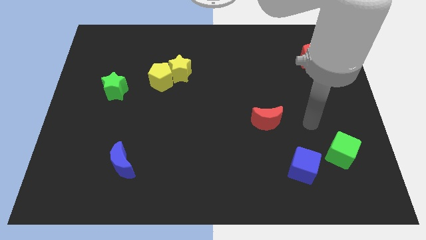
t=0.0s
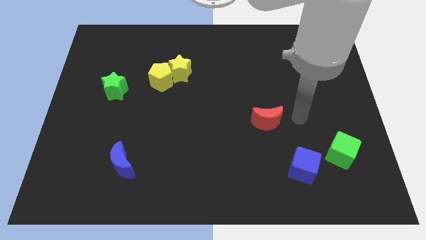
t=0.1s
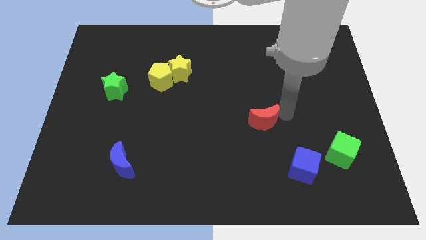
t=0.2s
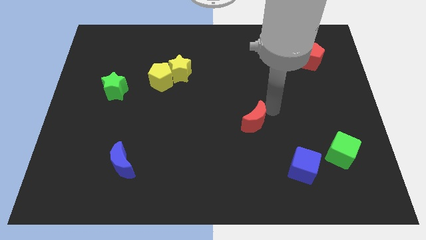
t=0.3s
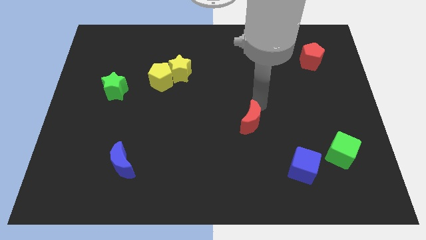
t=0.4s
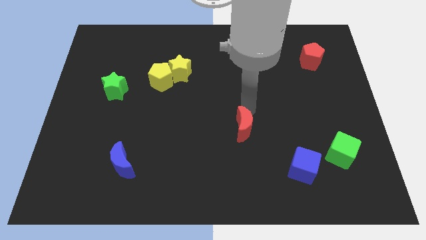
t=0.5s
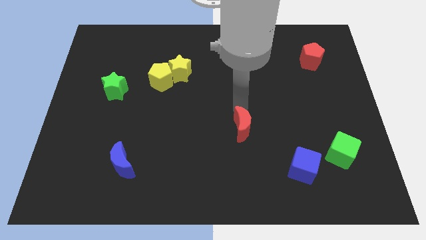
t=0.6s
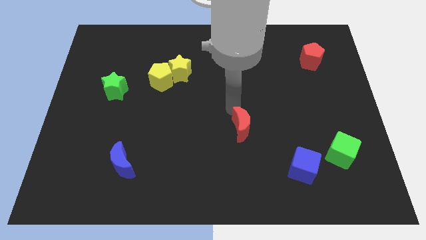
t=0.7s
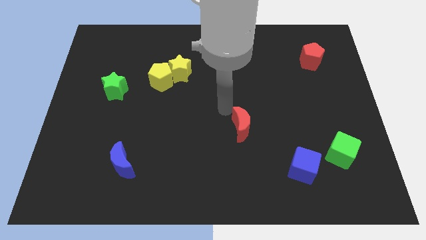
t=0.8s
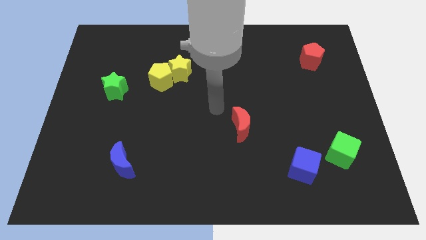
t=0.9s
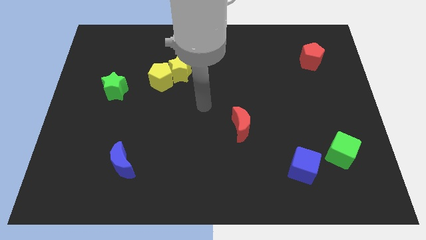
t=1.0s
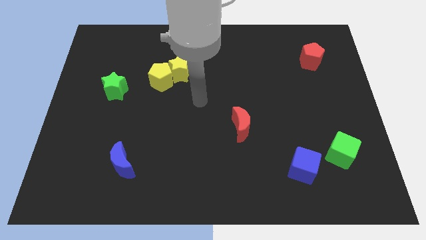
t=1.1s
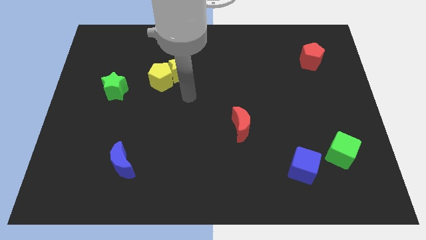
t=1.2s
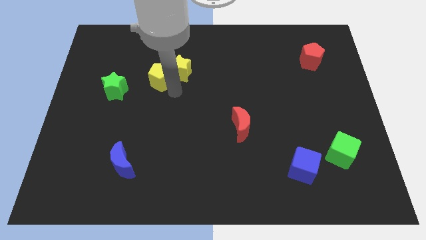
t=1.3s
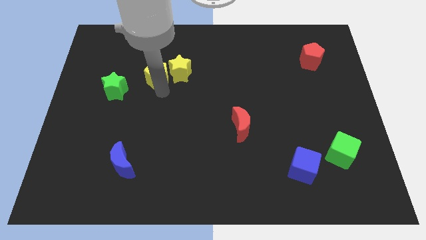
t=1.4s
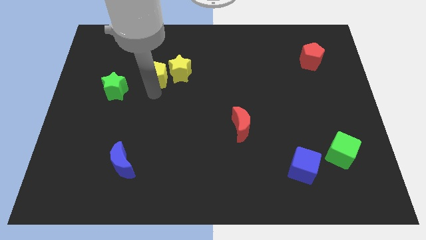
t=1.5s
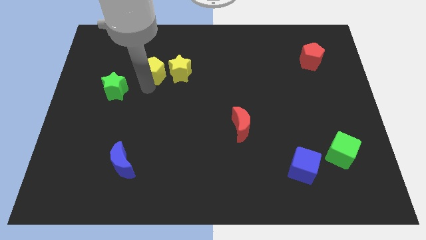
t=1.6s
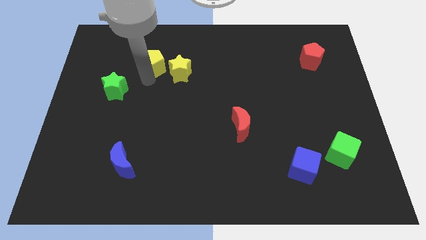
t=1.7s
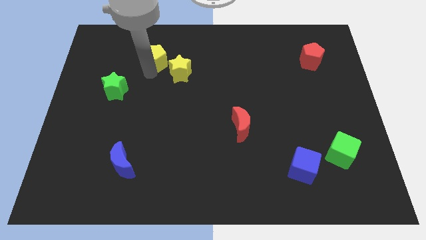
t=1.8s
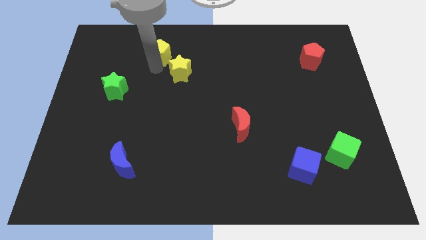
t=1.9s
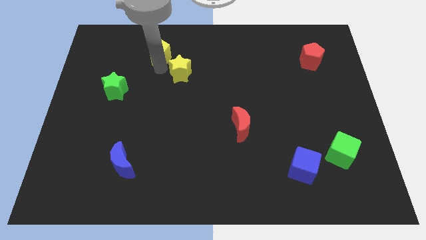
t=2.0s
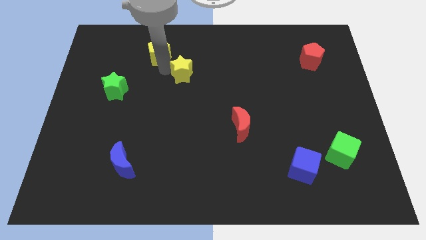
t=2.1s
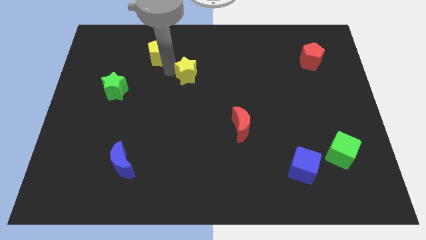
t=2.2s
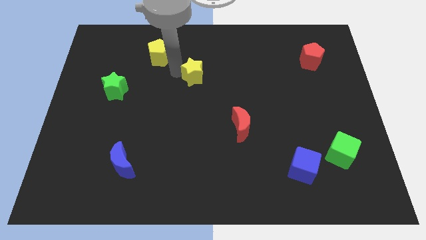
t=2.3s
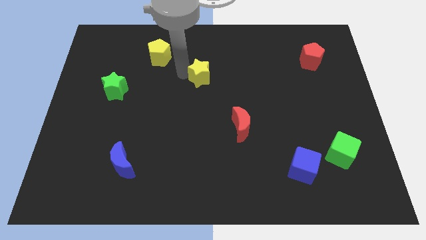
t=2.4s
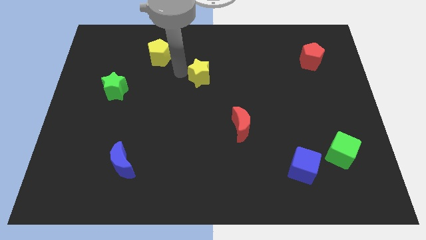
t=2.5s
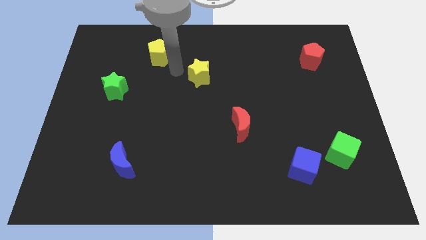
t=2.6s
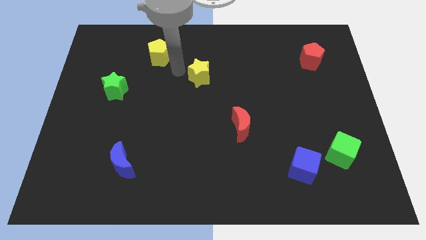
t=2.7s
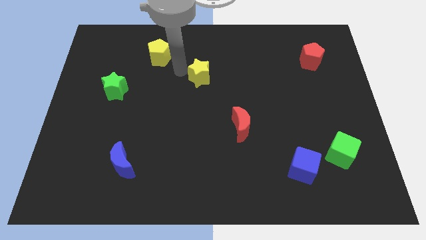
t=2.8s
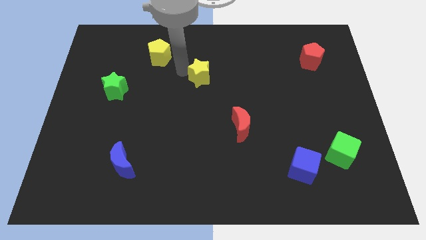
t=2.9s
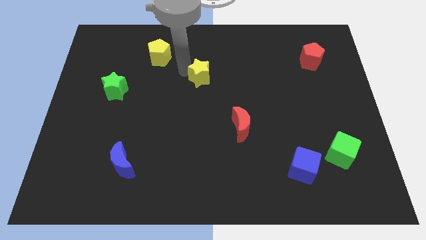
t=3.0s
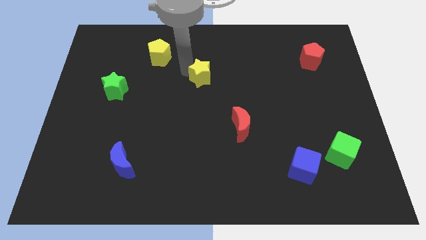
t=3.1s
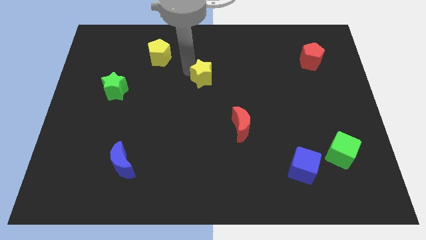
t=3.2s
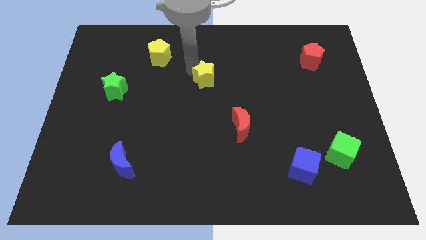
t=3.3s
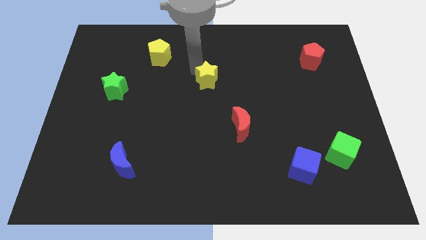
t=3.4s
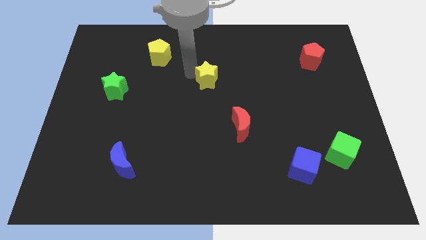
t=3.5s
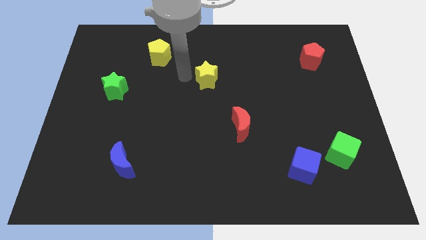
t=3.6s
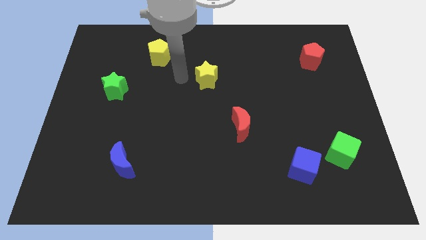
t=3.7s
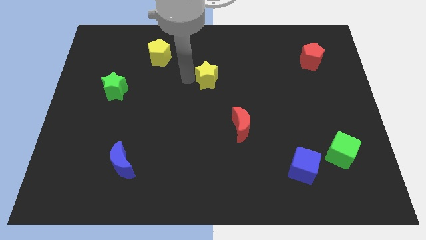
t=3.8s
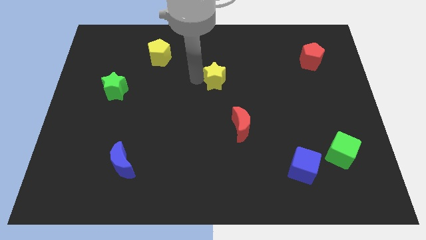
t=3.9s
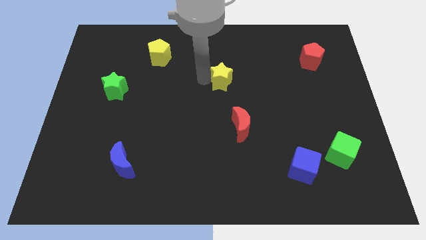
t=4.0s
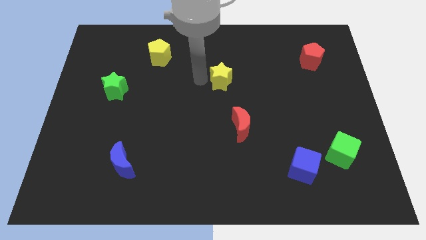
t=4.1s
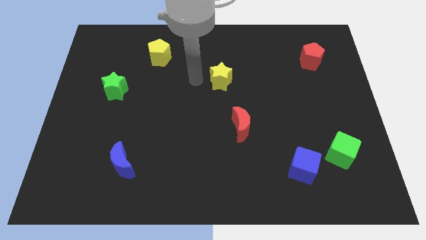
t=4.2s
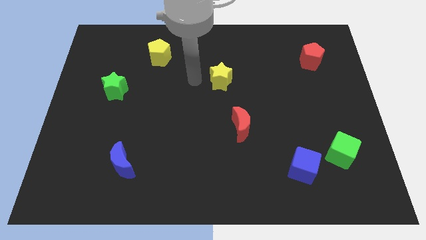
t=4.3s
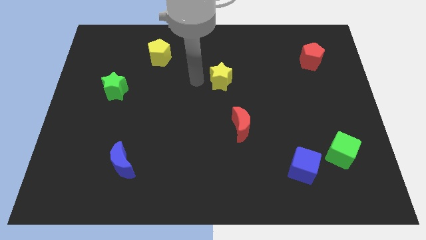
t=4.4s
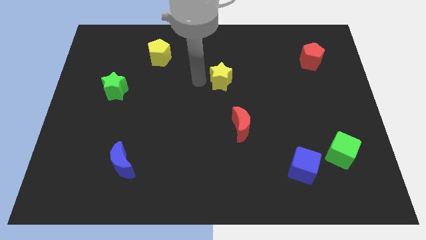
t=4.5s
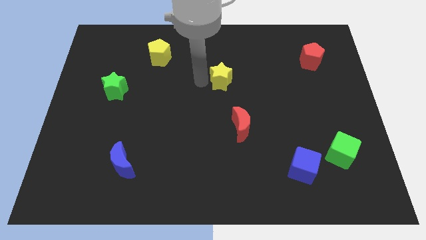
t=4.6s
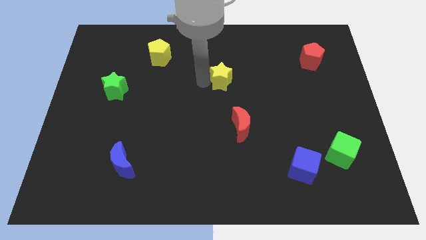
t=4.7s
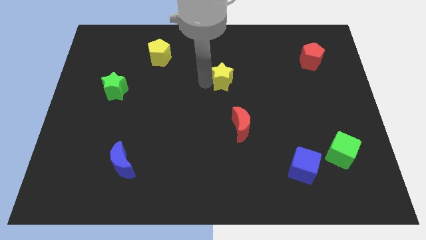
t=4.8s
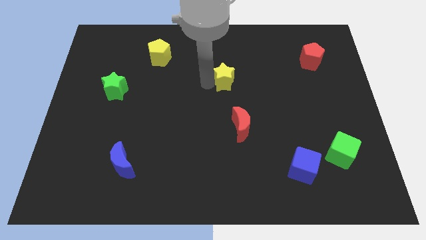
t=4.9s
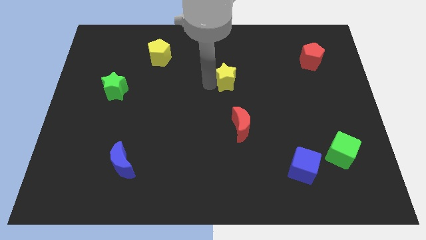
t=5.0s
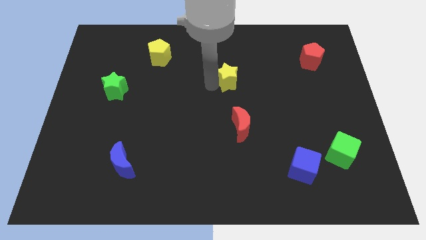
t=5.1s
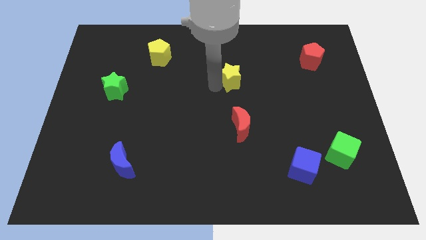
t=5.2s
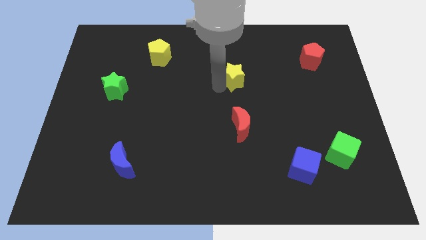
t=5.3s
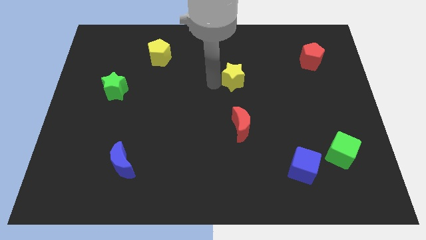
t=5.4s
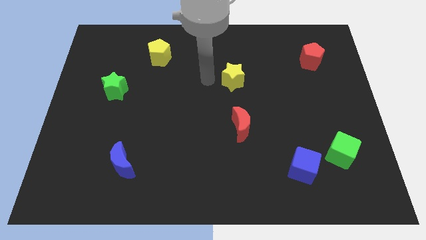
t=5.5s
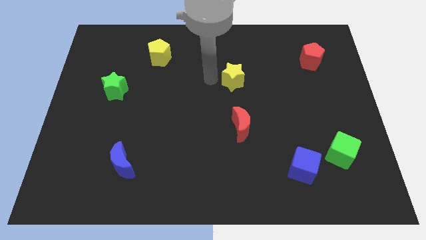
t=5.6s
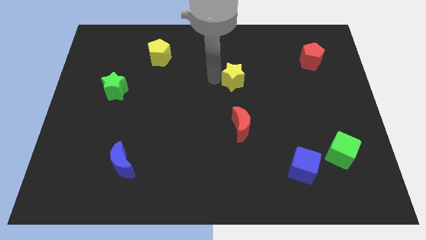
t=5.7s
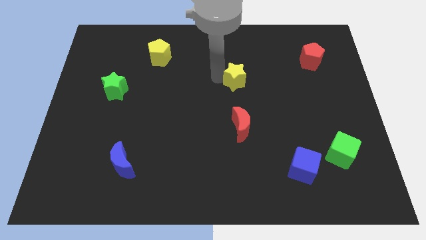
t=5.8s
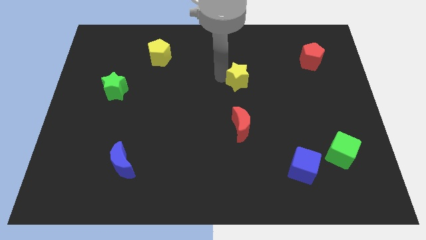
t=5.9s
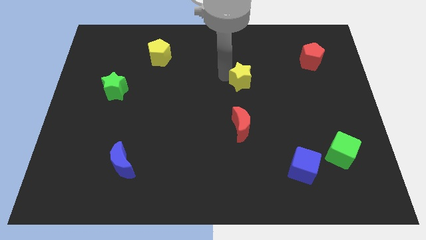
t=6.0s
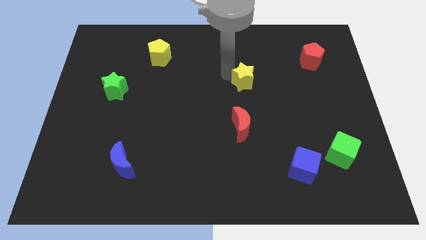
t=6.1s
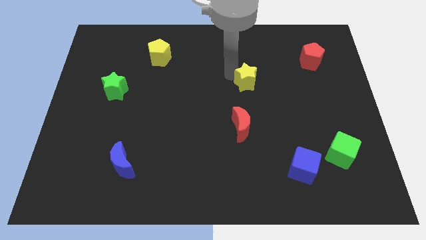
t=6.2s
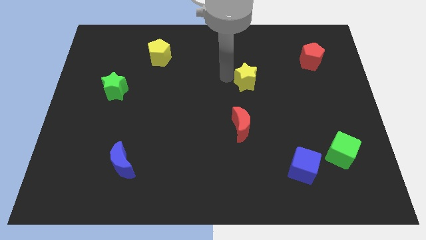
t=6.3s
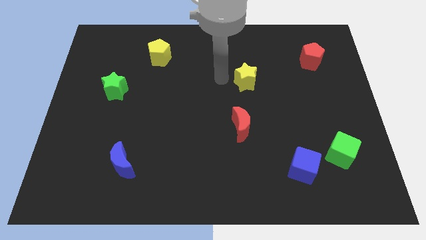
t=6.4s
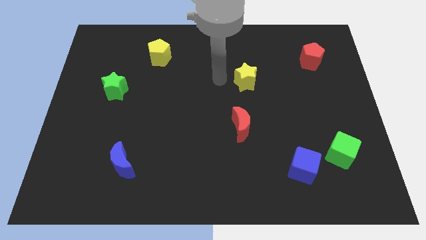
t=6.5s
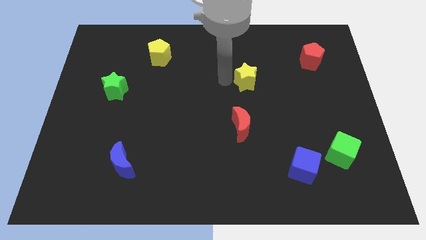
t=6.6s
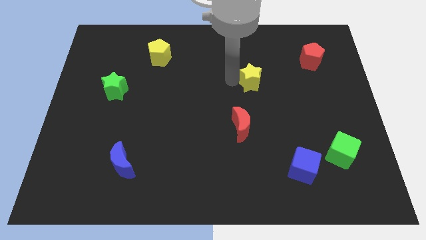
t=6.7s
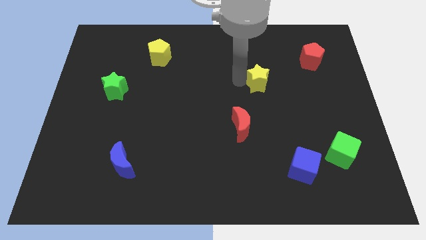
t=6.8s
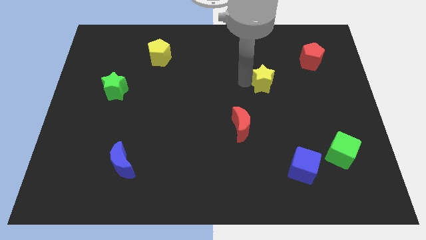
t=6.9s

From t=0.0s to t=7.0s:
push the yellow star to the right

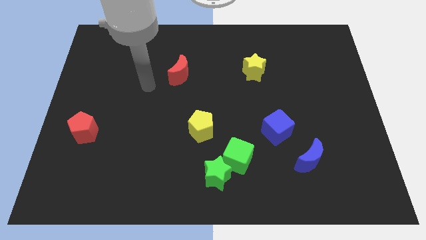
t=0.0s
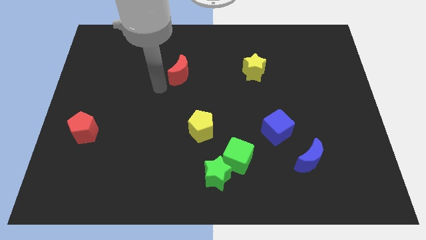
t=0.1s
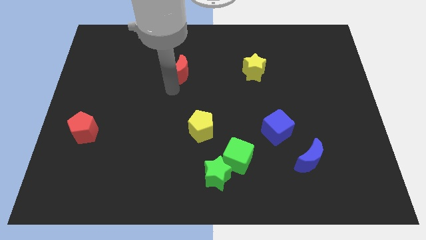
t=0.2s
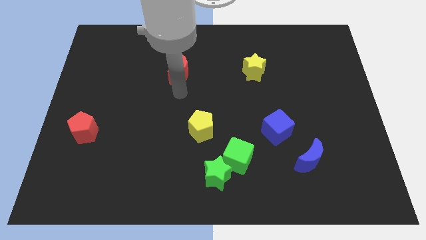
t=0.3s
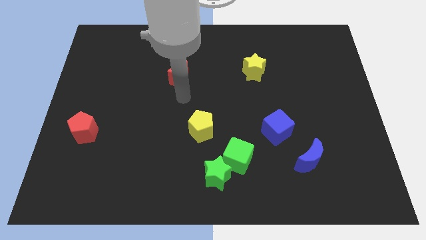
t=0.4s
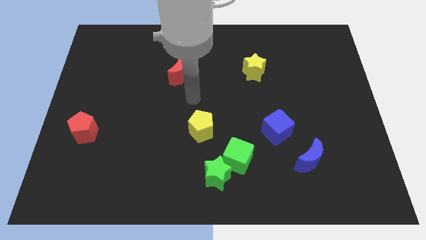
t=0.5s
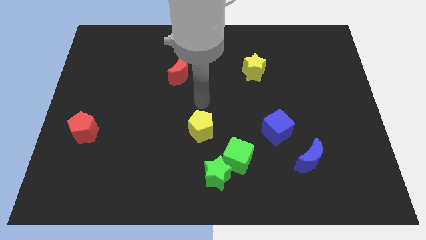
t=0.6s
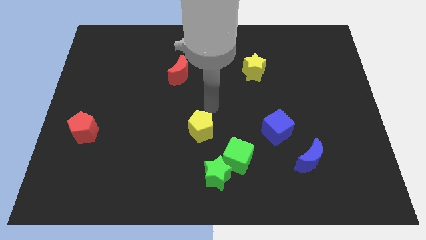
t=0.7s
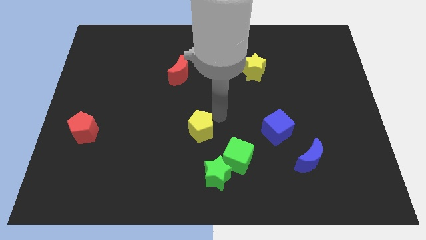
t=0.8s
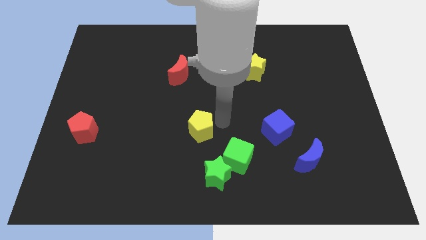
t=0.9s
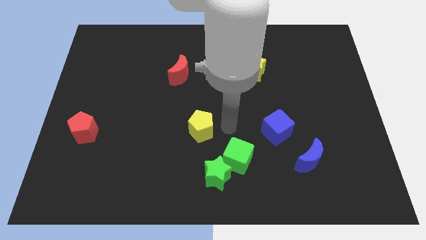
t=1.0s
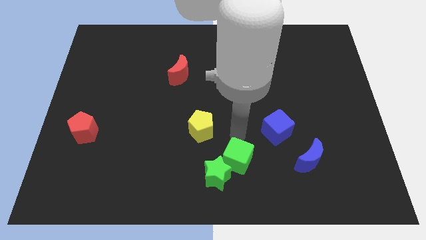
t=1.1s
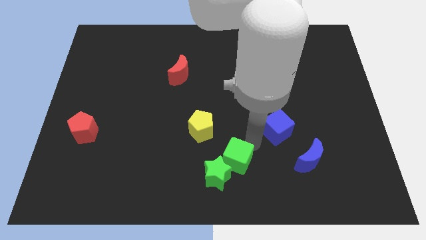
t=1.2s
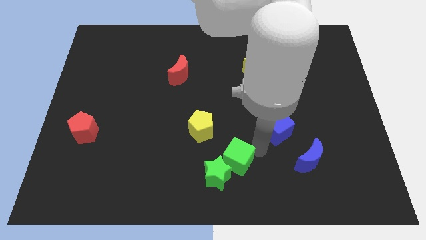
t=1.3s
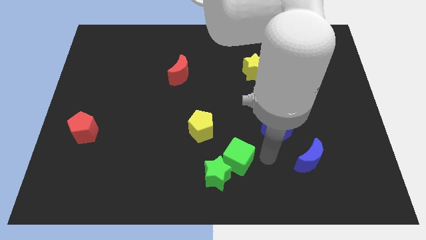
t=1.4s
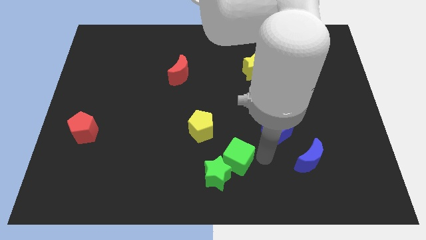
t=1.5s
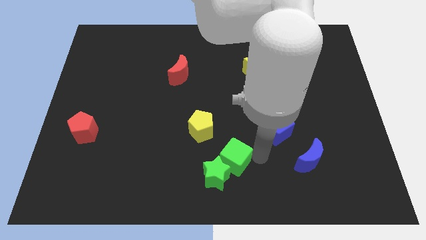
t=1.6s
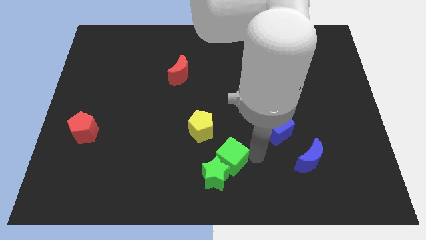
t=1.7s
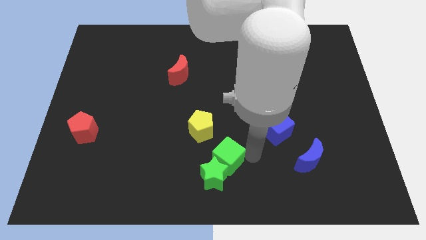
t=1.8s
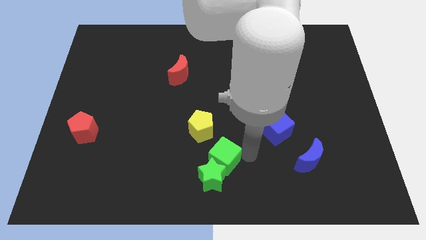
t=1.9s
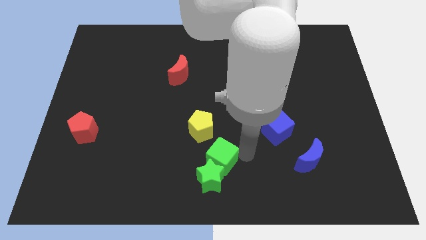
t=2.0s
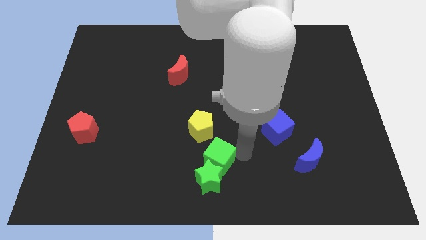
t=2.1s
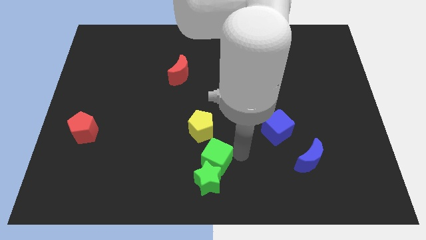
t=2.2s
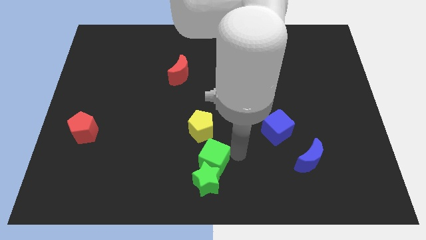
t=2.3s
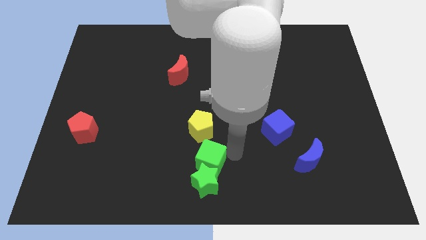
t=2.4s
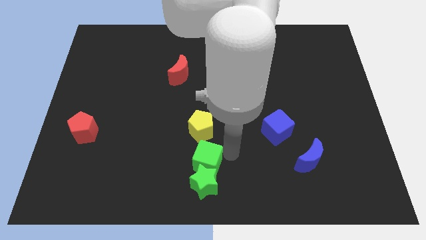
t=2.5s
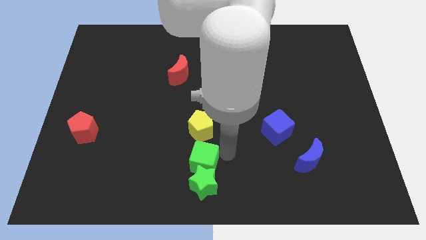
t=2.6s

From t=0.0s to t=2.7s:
move the green cube left a bit
